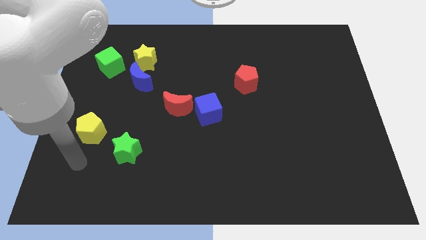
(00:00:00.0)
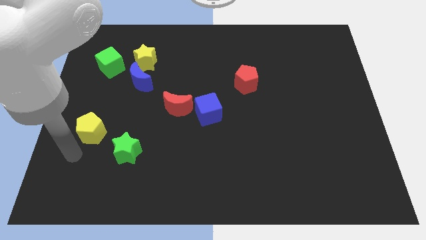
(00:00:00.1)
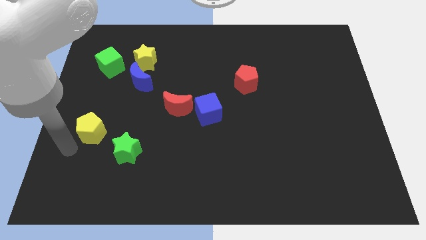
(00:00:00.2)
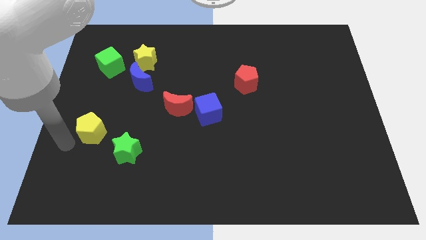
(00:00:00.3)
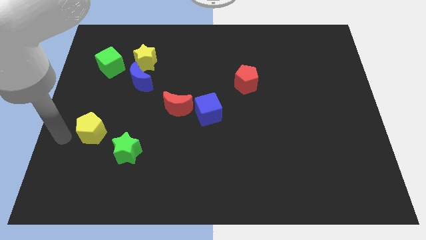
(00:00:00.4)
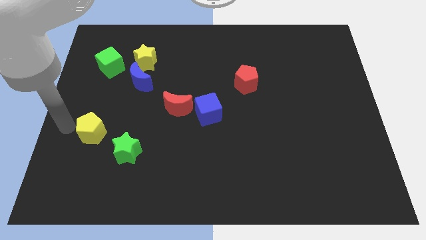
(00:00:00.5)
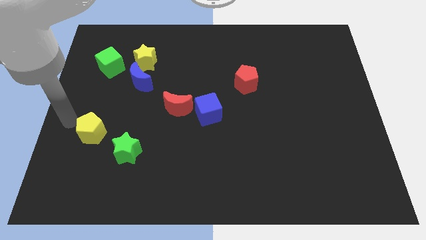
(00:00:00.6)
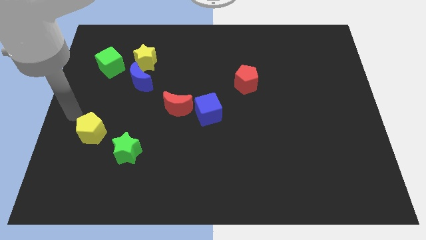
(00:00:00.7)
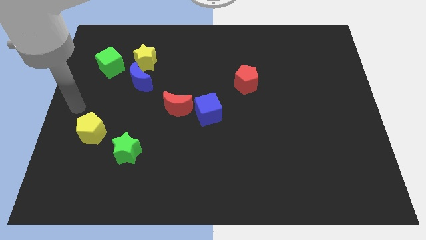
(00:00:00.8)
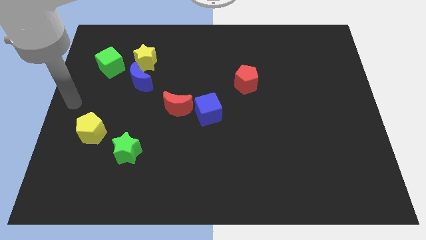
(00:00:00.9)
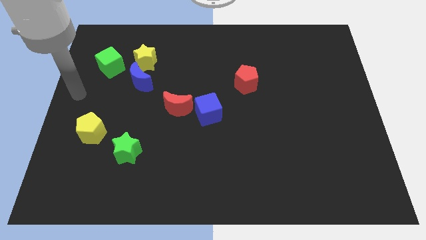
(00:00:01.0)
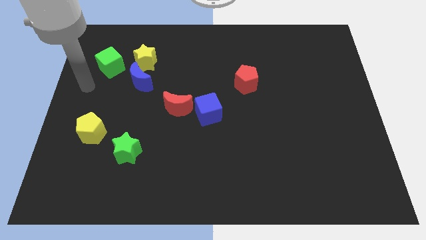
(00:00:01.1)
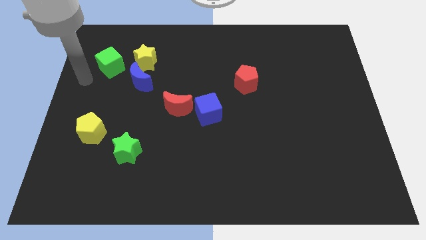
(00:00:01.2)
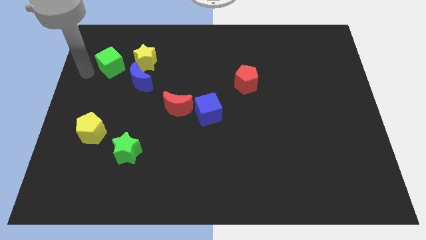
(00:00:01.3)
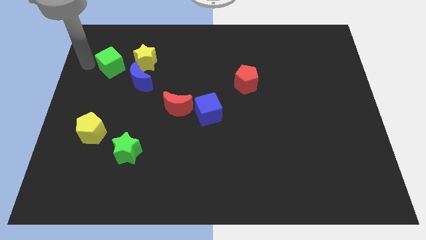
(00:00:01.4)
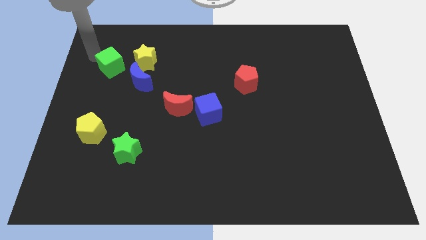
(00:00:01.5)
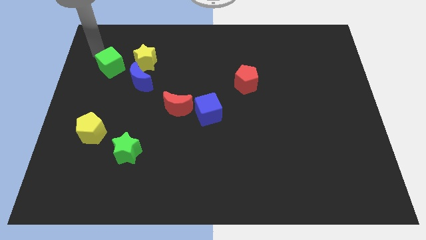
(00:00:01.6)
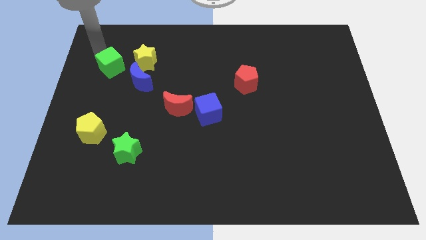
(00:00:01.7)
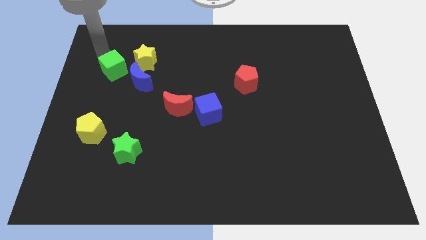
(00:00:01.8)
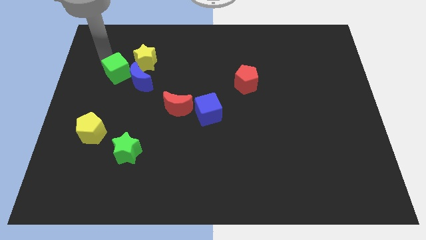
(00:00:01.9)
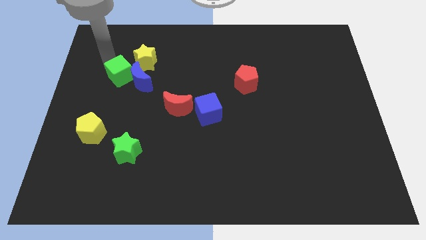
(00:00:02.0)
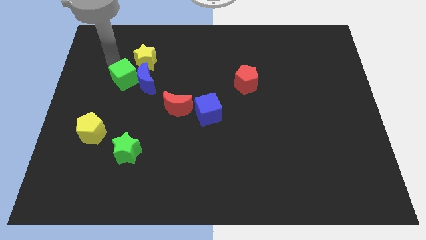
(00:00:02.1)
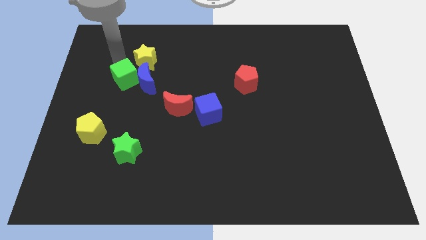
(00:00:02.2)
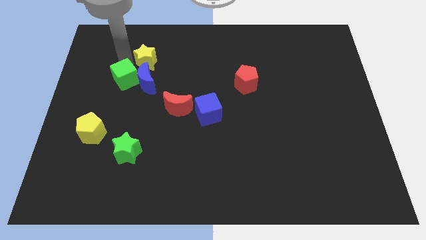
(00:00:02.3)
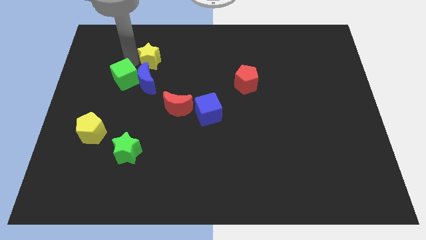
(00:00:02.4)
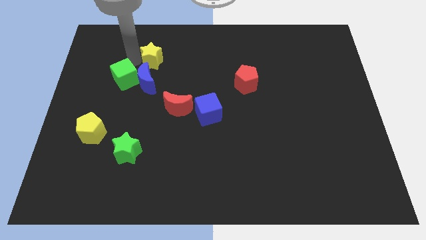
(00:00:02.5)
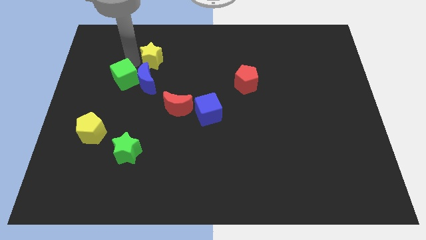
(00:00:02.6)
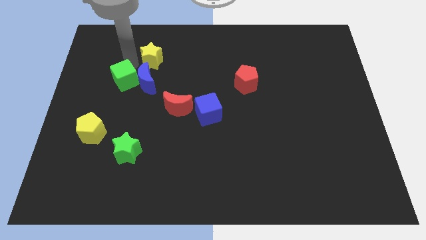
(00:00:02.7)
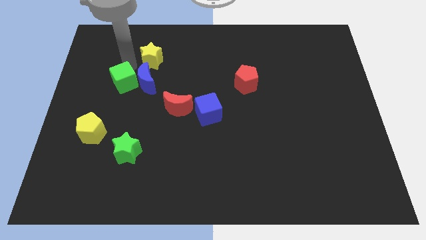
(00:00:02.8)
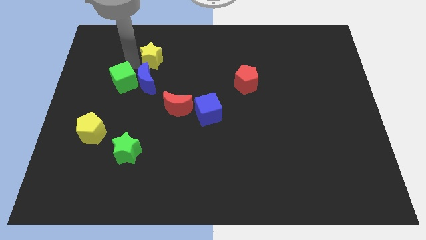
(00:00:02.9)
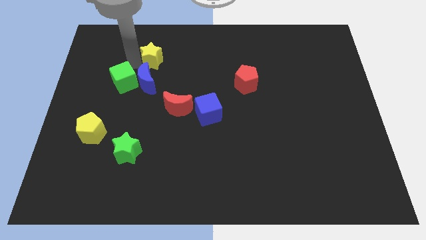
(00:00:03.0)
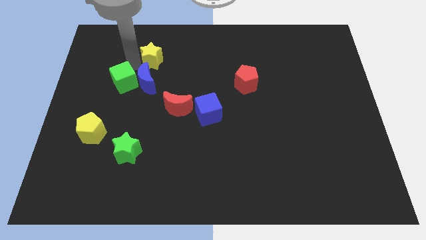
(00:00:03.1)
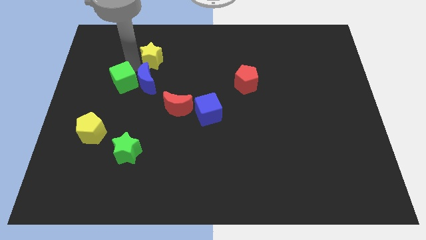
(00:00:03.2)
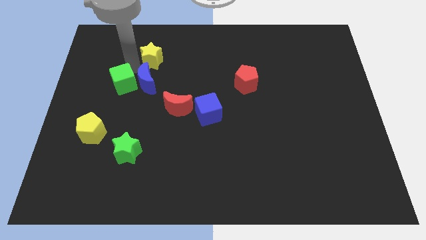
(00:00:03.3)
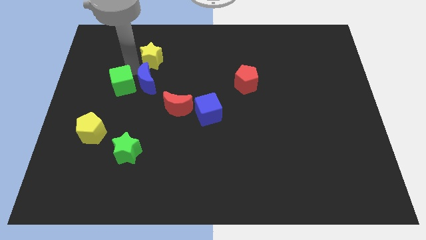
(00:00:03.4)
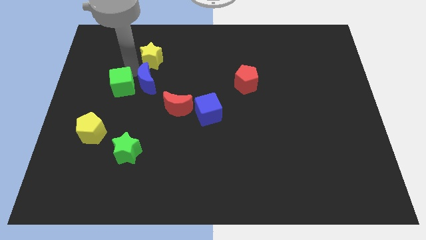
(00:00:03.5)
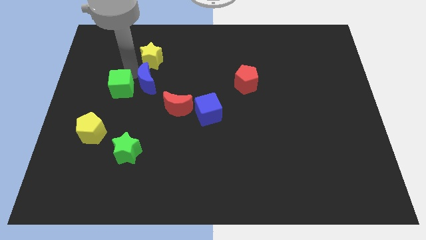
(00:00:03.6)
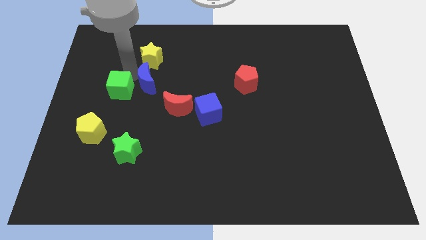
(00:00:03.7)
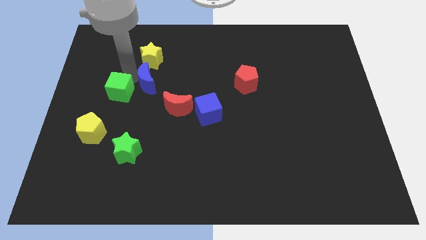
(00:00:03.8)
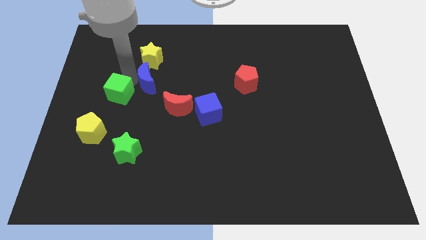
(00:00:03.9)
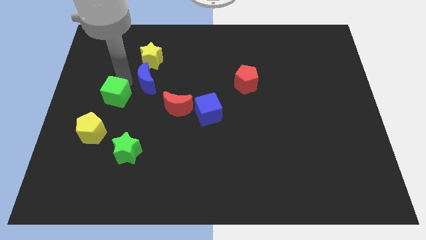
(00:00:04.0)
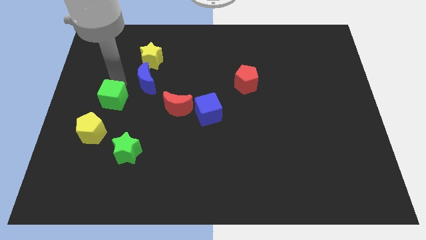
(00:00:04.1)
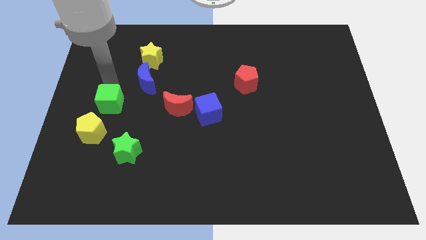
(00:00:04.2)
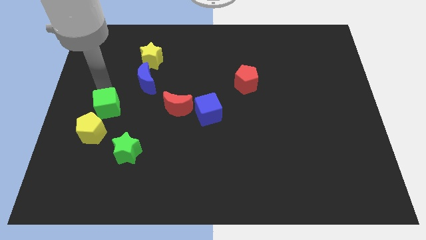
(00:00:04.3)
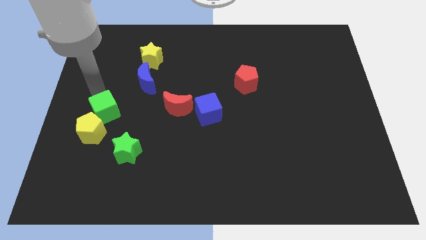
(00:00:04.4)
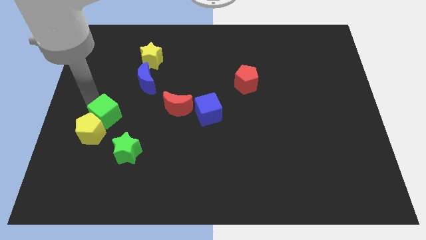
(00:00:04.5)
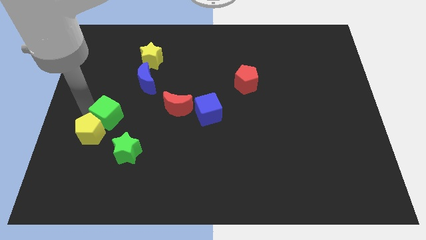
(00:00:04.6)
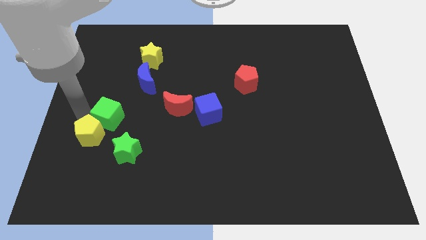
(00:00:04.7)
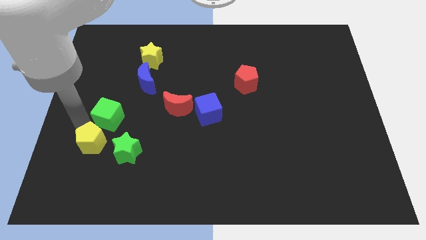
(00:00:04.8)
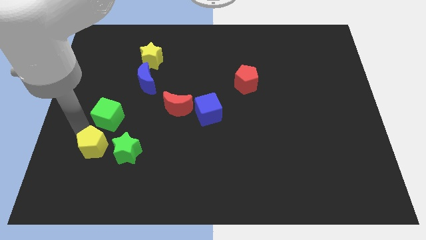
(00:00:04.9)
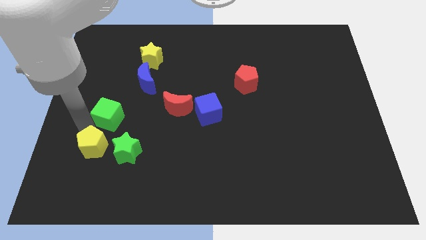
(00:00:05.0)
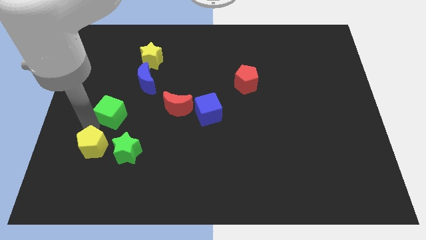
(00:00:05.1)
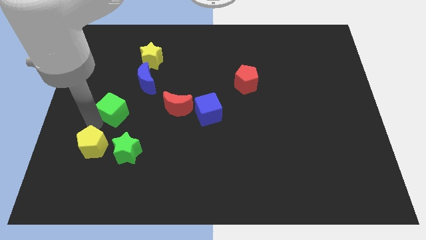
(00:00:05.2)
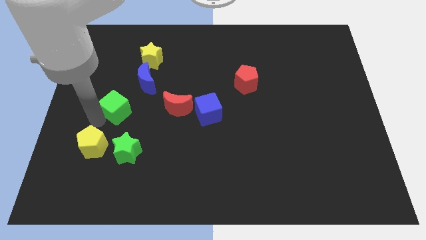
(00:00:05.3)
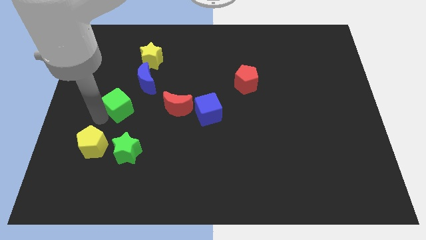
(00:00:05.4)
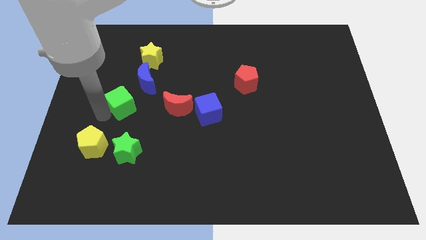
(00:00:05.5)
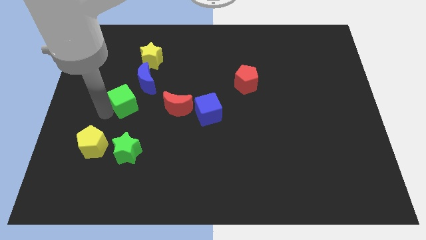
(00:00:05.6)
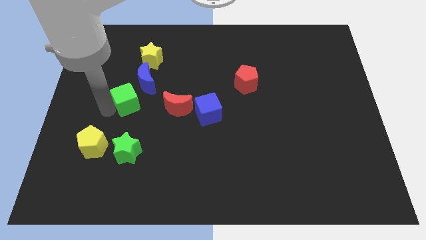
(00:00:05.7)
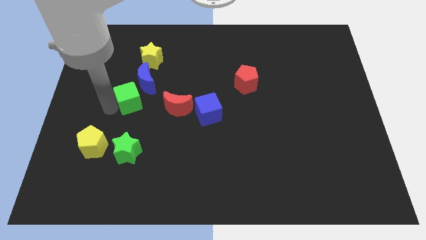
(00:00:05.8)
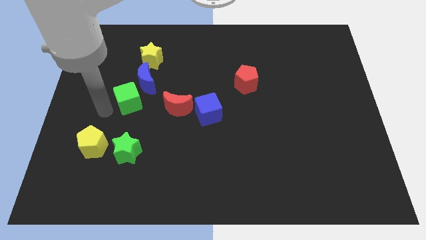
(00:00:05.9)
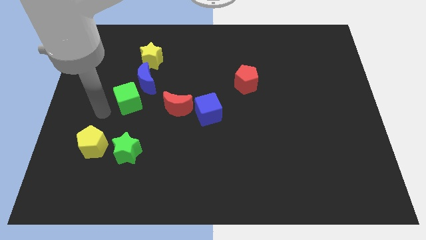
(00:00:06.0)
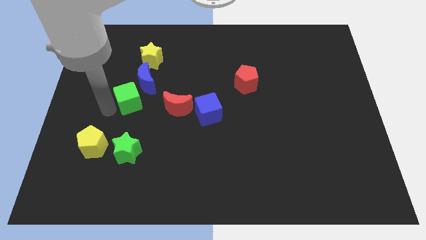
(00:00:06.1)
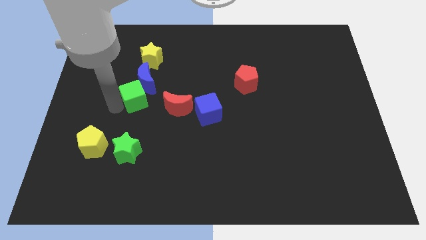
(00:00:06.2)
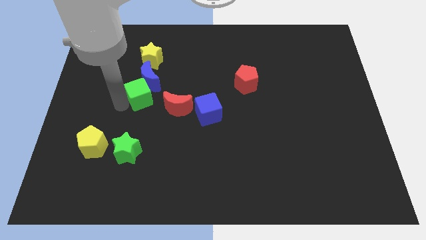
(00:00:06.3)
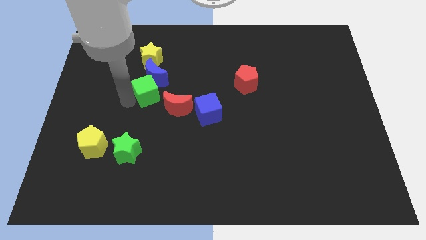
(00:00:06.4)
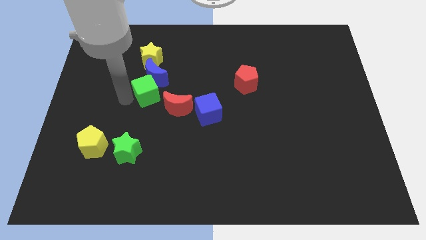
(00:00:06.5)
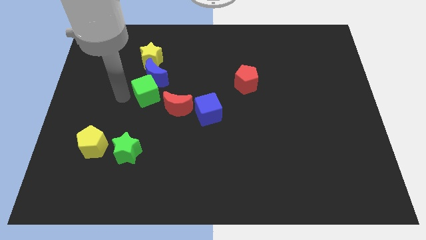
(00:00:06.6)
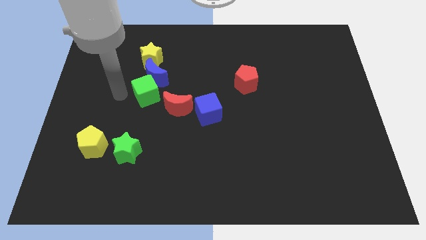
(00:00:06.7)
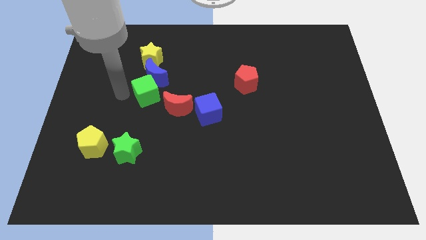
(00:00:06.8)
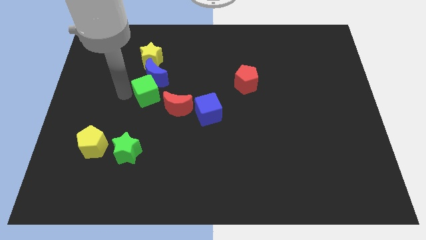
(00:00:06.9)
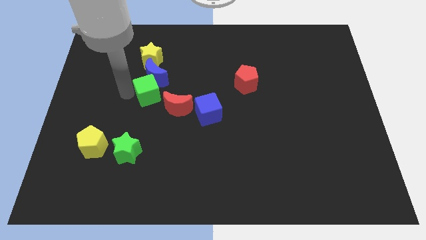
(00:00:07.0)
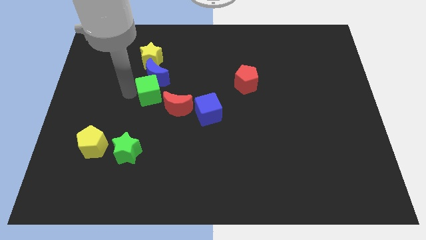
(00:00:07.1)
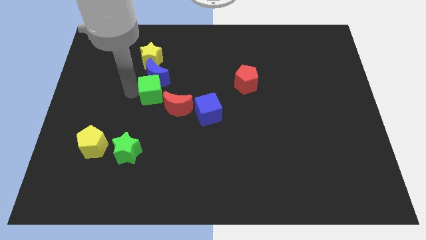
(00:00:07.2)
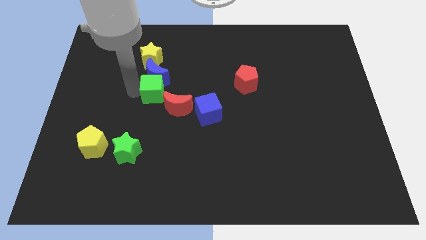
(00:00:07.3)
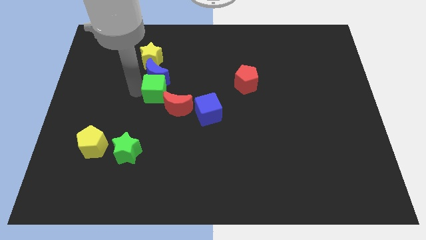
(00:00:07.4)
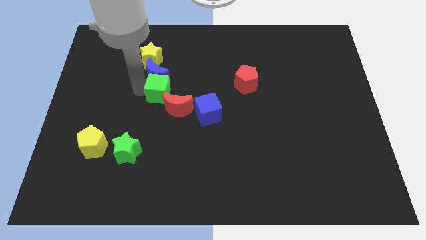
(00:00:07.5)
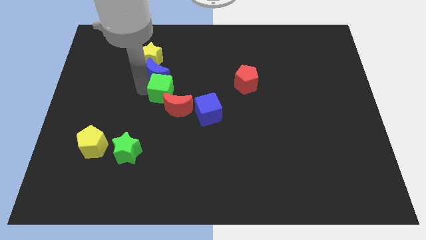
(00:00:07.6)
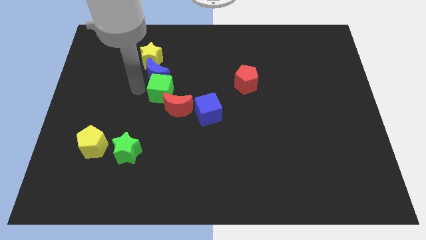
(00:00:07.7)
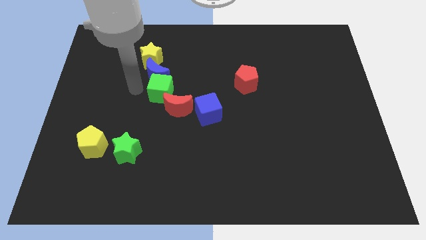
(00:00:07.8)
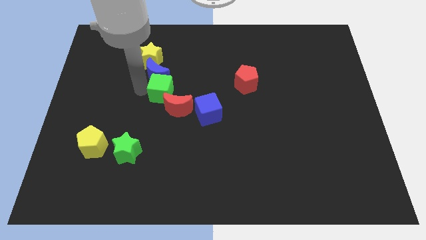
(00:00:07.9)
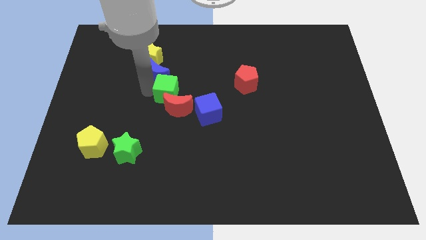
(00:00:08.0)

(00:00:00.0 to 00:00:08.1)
put the green cube diagonally up and to the left of the blue cube

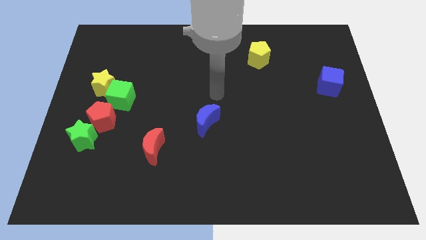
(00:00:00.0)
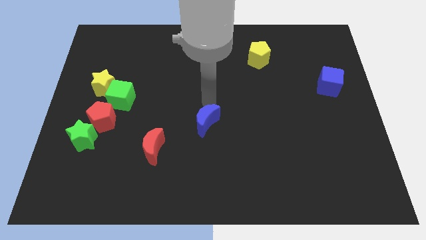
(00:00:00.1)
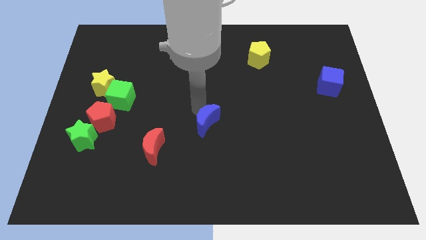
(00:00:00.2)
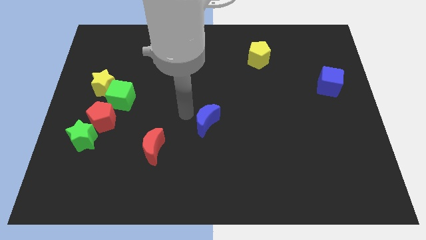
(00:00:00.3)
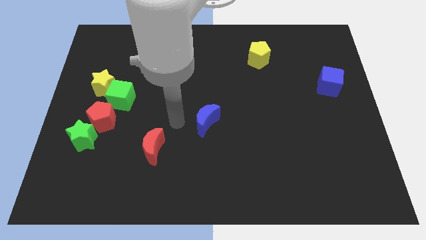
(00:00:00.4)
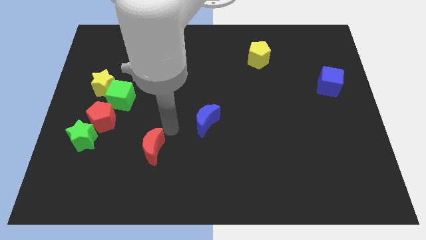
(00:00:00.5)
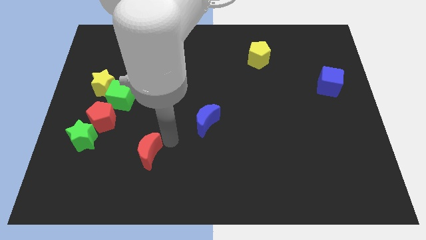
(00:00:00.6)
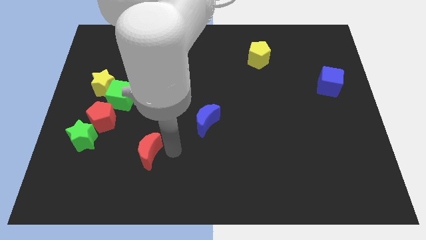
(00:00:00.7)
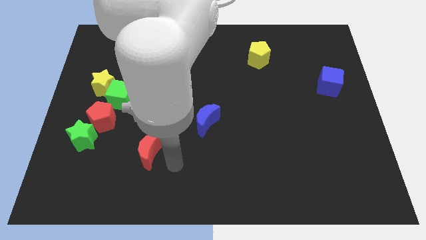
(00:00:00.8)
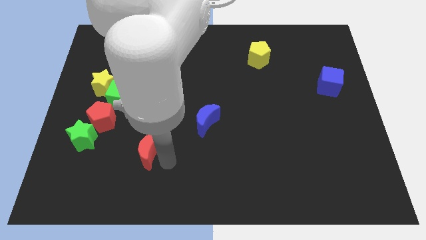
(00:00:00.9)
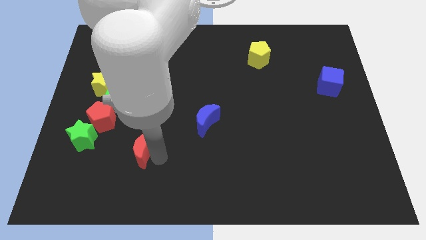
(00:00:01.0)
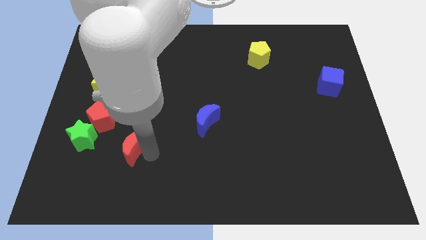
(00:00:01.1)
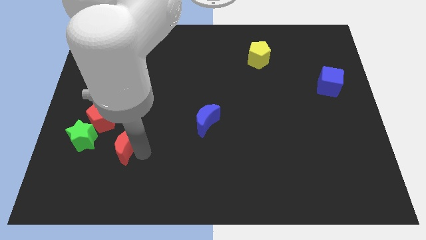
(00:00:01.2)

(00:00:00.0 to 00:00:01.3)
push the red moon to the bottom side of the green cube
